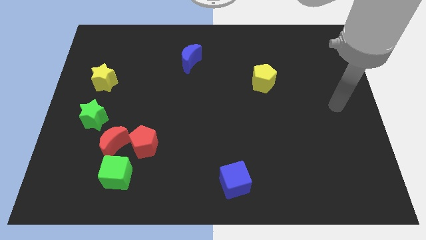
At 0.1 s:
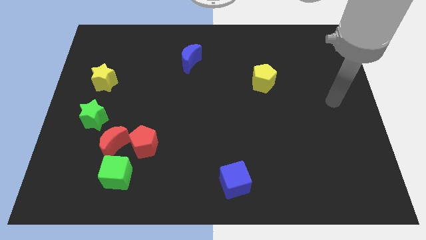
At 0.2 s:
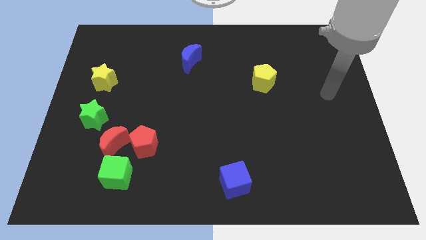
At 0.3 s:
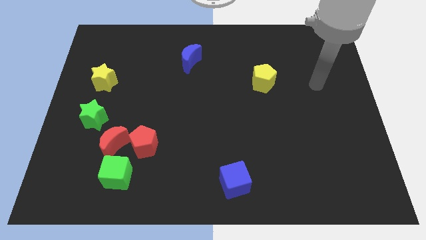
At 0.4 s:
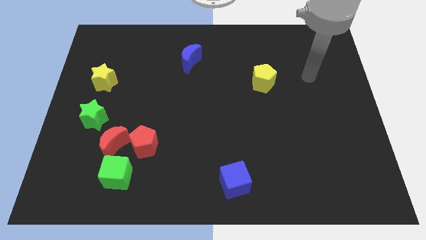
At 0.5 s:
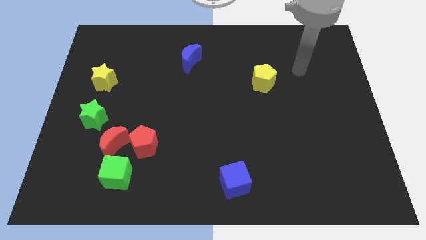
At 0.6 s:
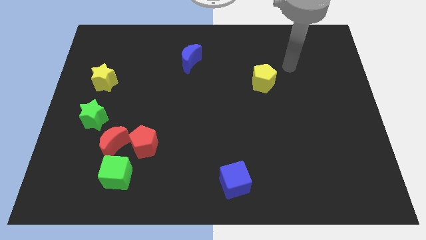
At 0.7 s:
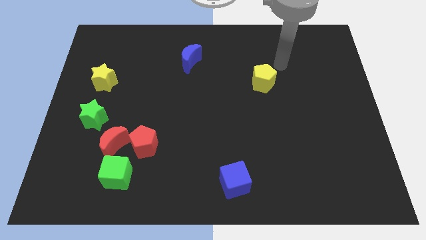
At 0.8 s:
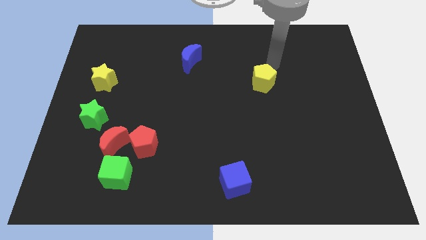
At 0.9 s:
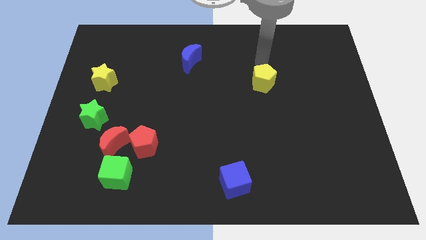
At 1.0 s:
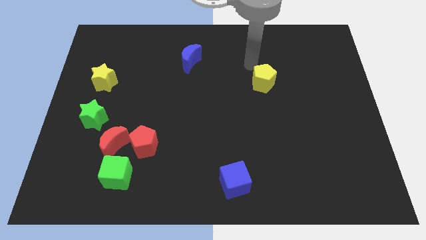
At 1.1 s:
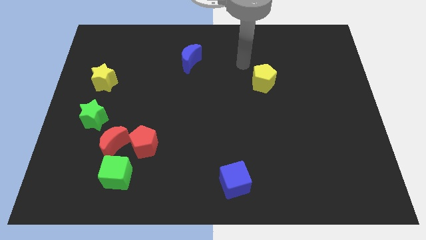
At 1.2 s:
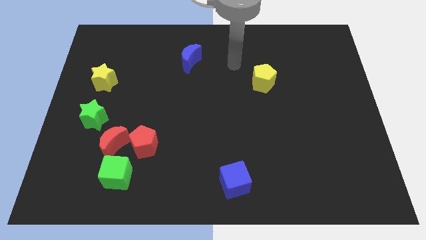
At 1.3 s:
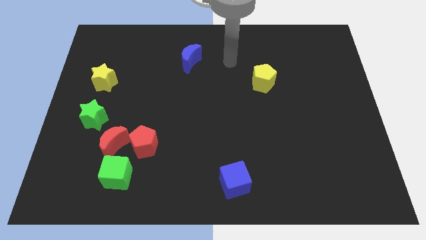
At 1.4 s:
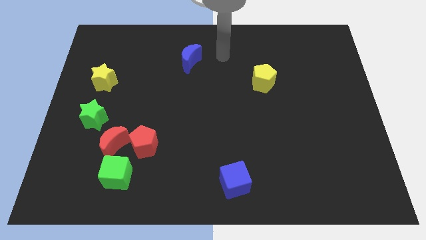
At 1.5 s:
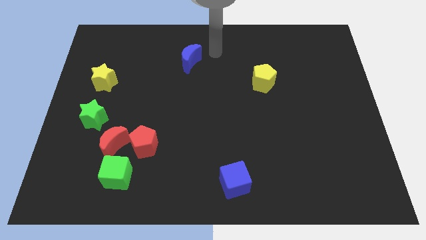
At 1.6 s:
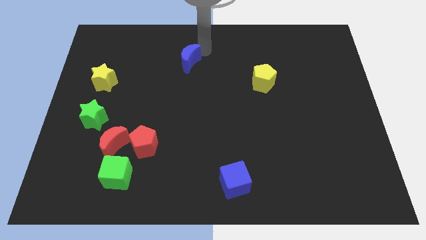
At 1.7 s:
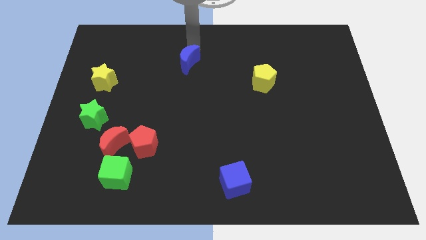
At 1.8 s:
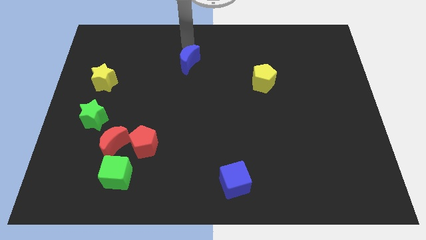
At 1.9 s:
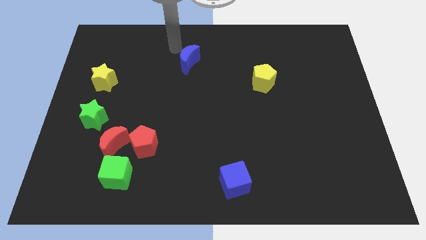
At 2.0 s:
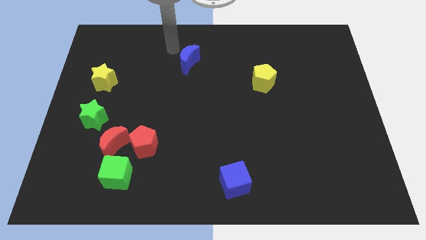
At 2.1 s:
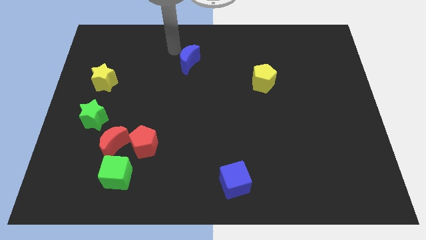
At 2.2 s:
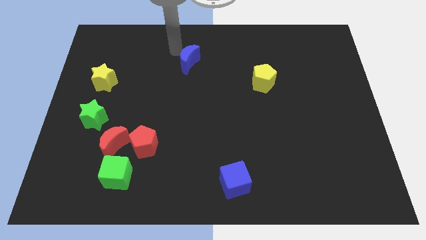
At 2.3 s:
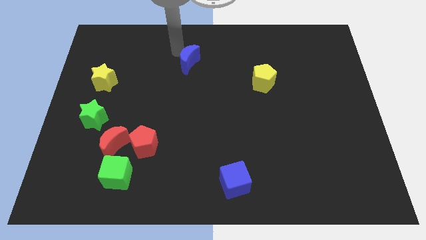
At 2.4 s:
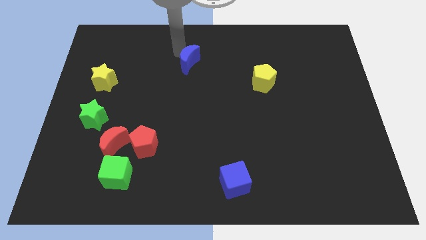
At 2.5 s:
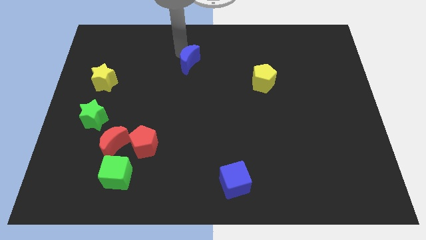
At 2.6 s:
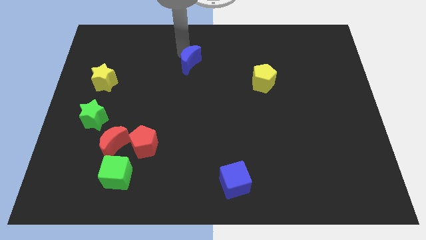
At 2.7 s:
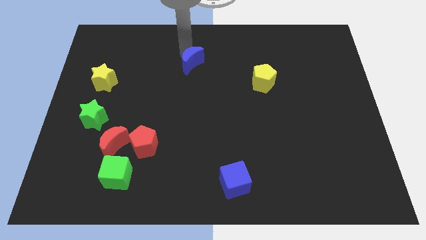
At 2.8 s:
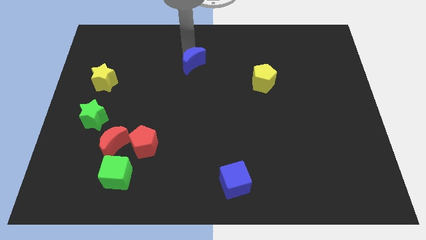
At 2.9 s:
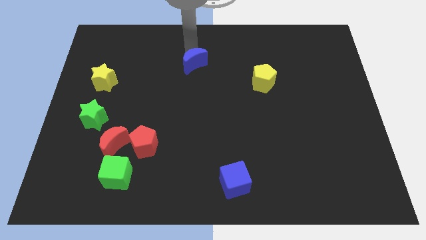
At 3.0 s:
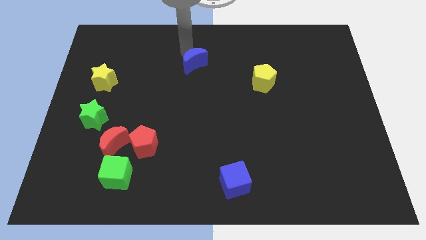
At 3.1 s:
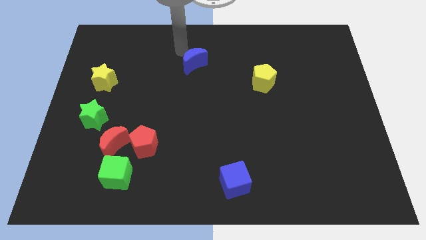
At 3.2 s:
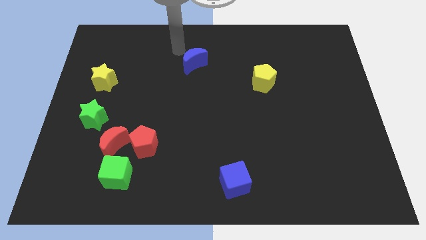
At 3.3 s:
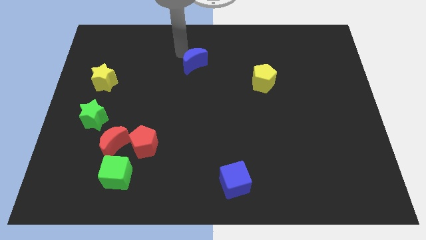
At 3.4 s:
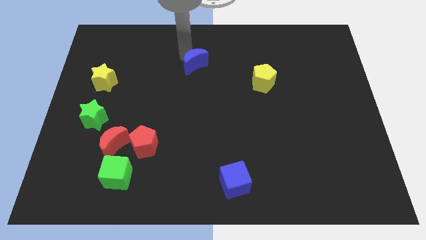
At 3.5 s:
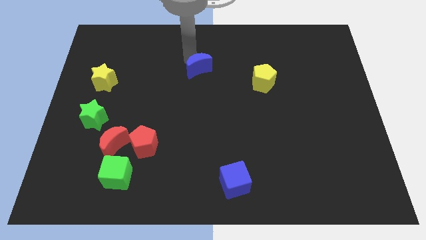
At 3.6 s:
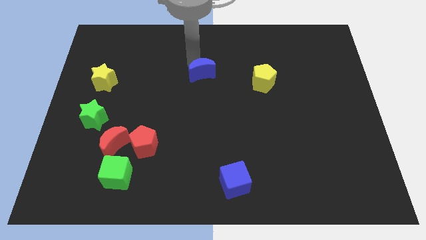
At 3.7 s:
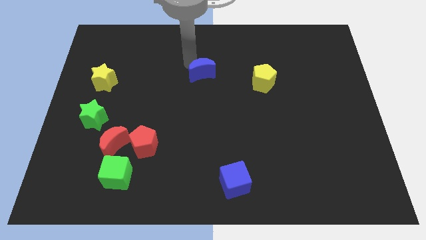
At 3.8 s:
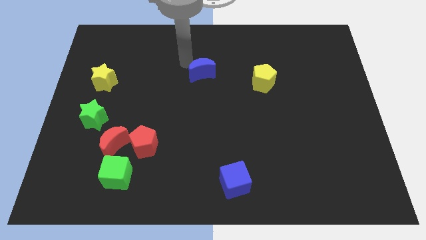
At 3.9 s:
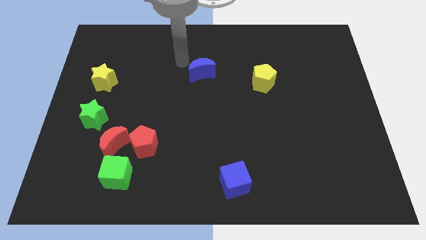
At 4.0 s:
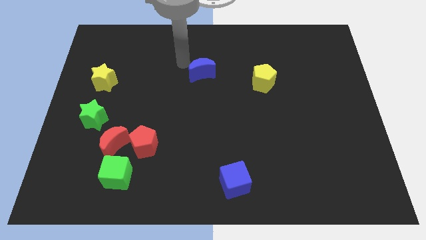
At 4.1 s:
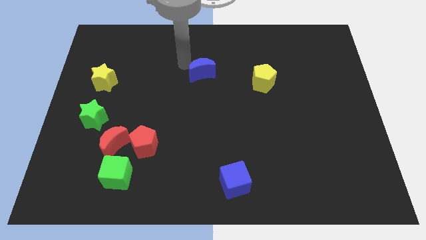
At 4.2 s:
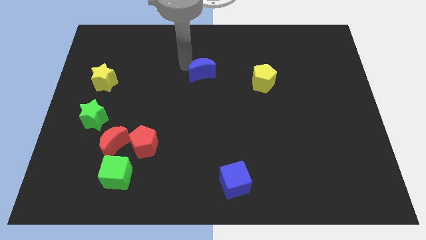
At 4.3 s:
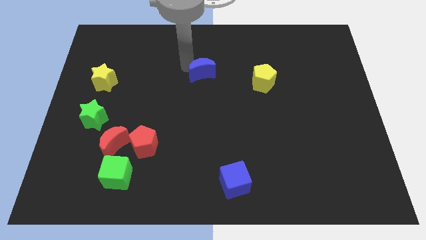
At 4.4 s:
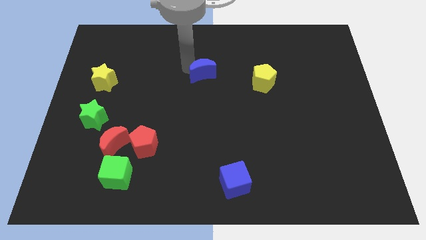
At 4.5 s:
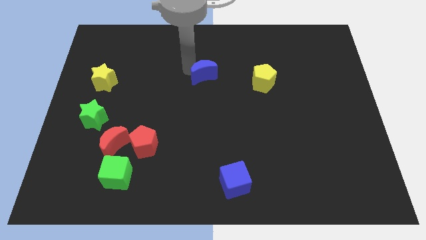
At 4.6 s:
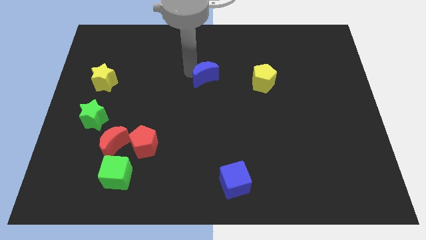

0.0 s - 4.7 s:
slide the blue moon downwards and right slightly

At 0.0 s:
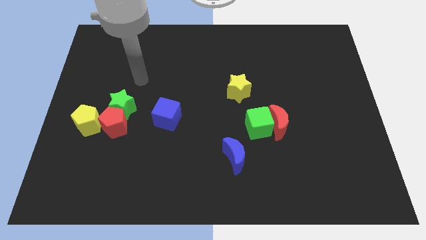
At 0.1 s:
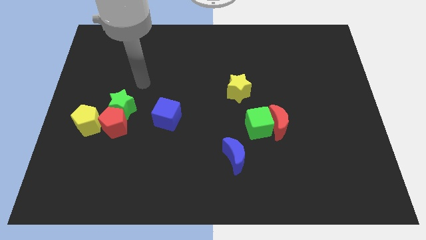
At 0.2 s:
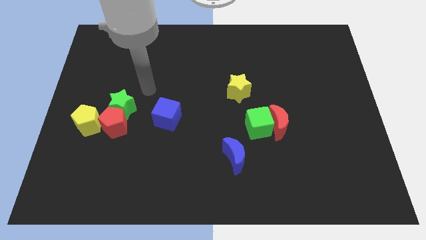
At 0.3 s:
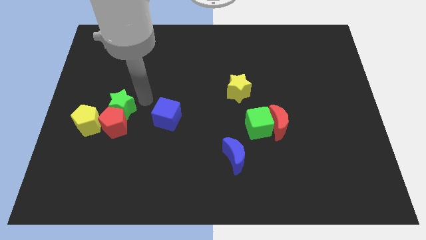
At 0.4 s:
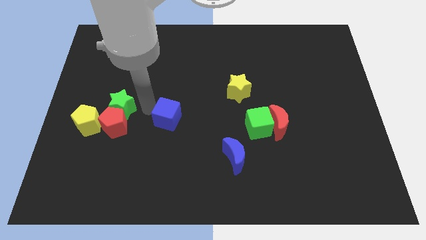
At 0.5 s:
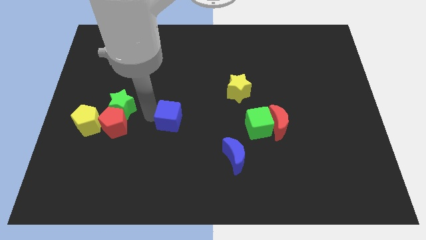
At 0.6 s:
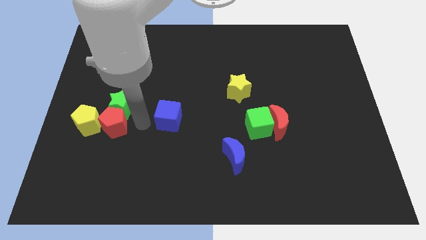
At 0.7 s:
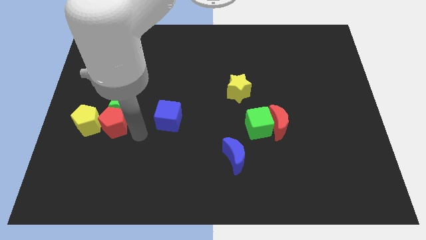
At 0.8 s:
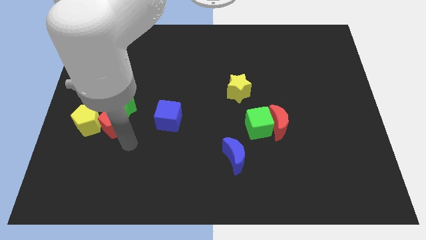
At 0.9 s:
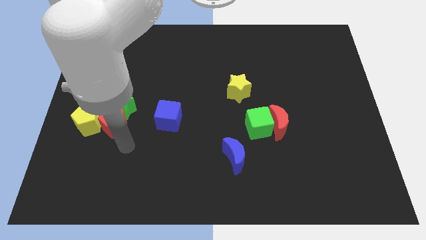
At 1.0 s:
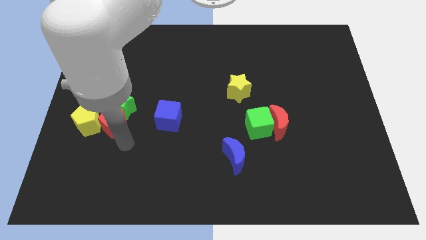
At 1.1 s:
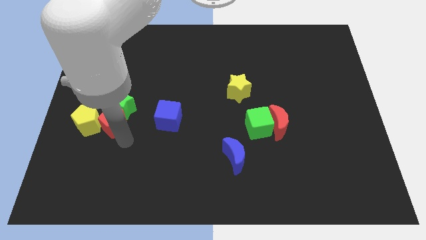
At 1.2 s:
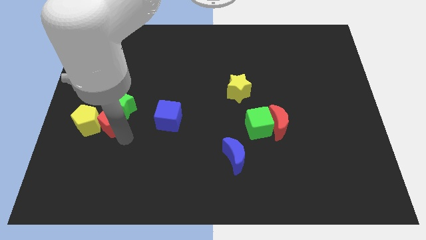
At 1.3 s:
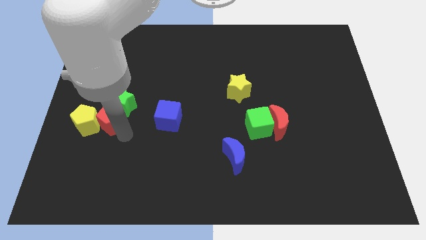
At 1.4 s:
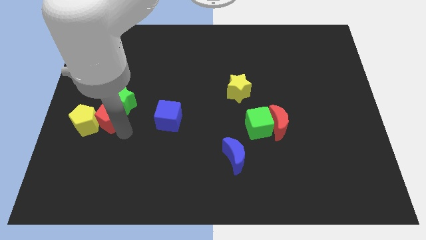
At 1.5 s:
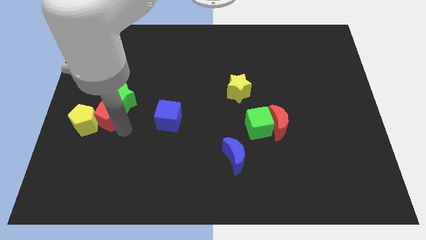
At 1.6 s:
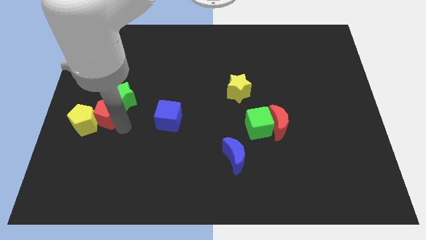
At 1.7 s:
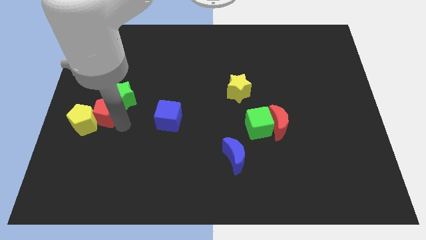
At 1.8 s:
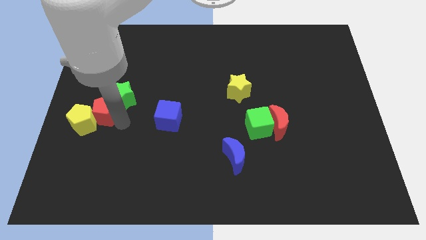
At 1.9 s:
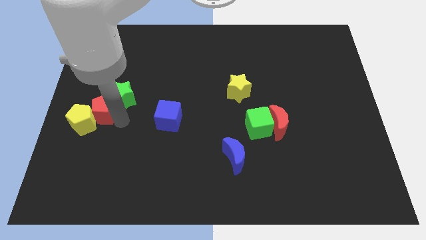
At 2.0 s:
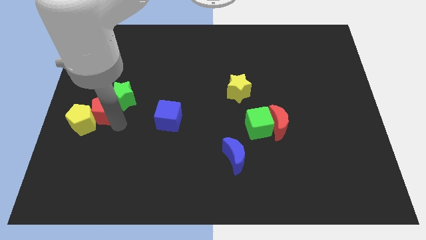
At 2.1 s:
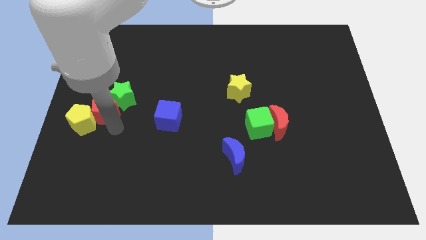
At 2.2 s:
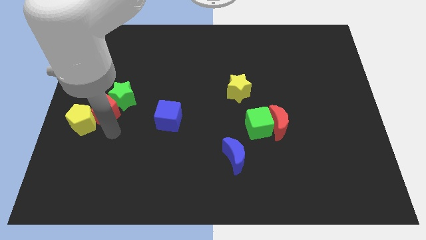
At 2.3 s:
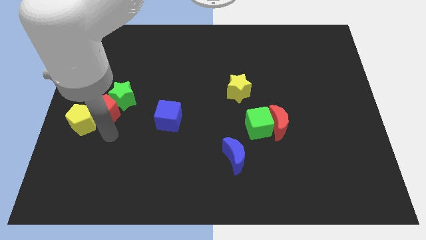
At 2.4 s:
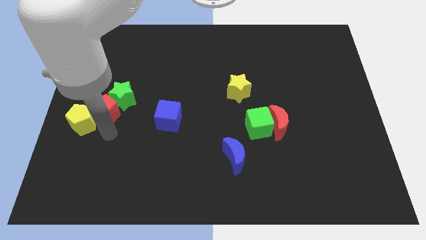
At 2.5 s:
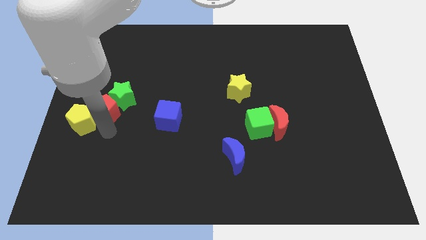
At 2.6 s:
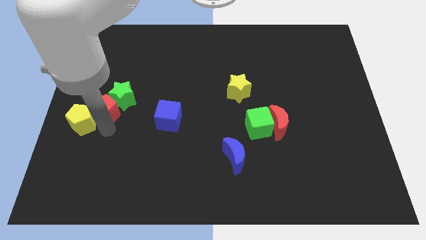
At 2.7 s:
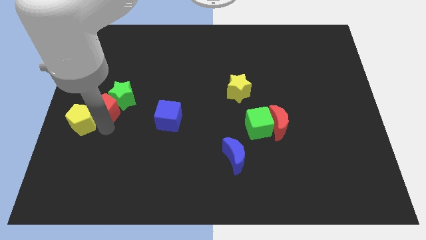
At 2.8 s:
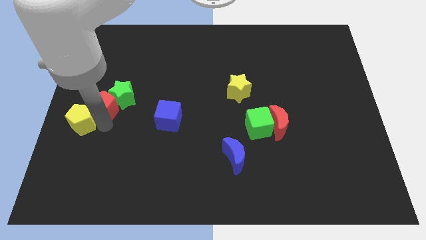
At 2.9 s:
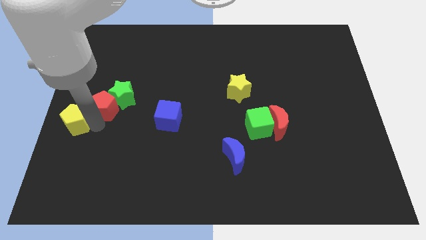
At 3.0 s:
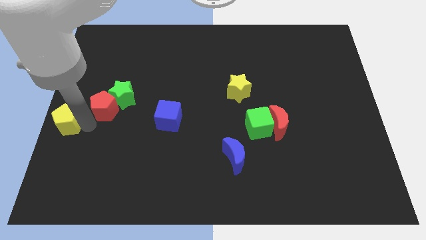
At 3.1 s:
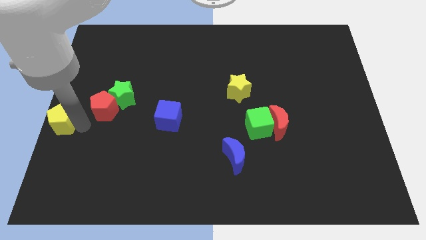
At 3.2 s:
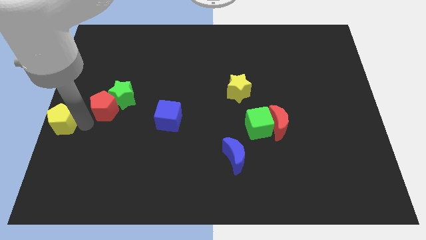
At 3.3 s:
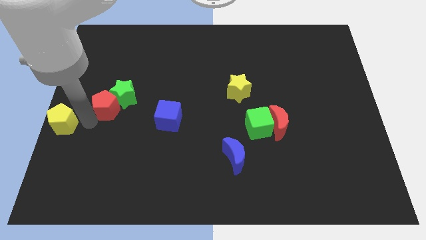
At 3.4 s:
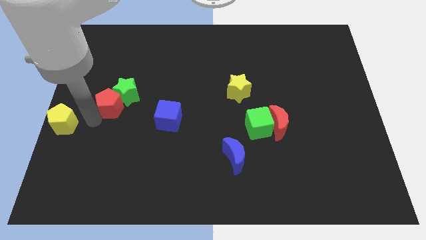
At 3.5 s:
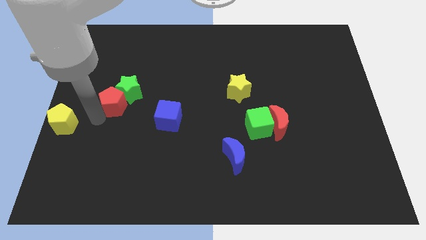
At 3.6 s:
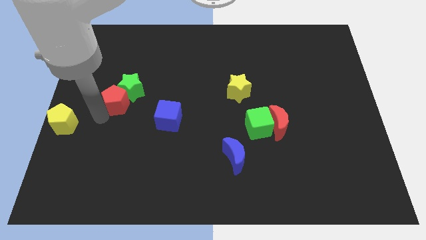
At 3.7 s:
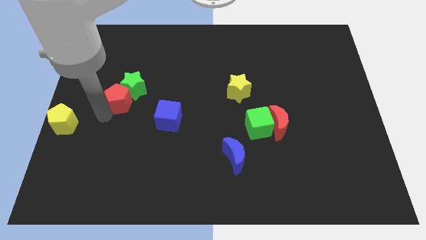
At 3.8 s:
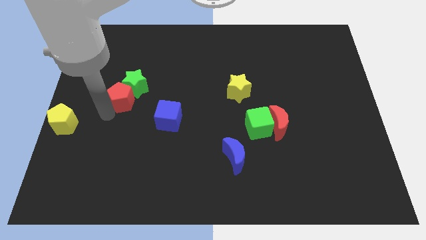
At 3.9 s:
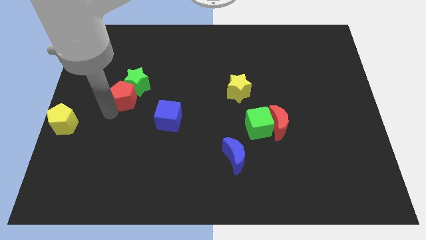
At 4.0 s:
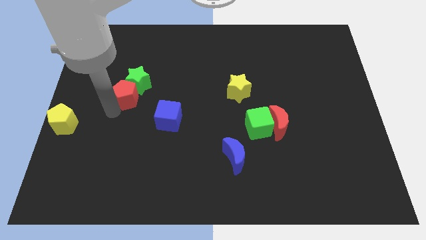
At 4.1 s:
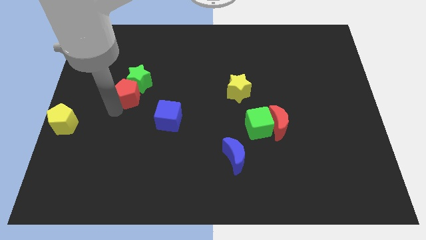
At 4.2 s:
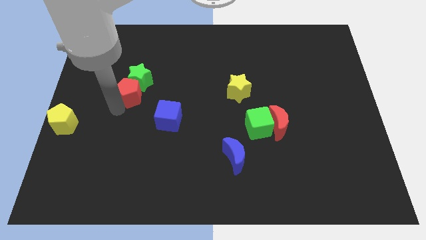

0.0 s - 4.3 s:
slide the red pentagon slightly upwards and then right
